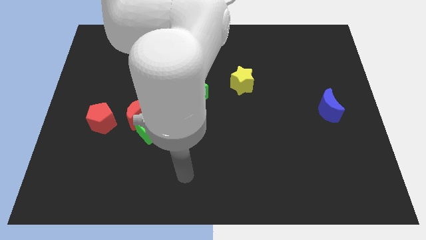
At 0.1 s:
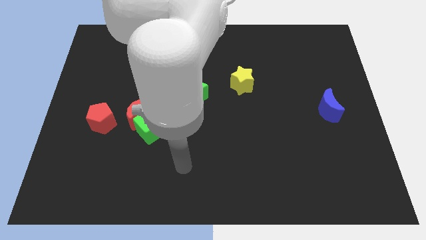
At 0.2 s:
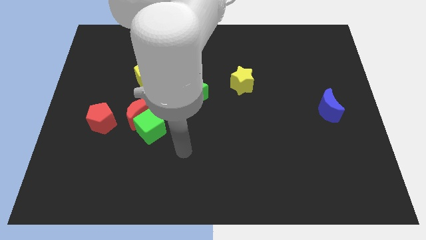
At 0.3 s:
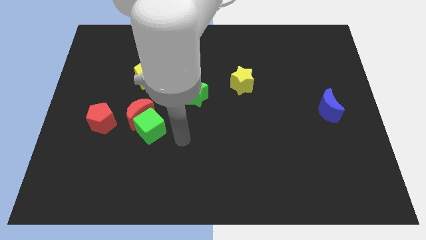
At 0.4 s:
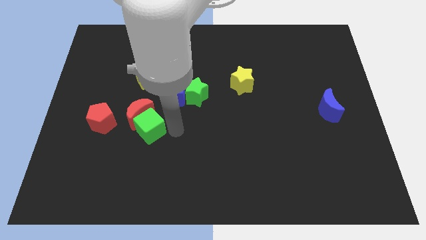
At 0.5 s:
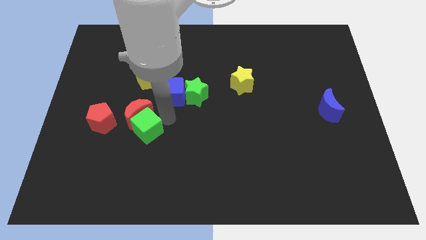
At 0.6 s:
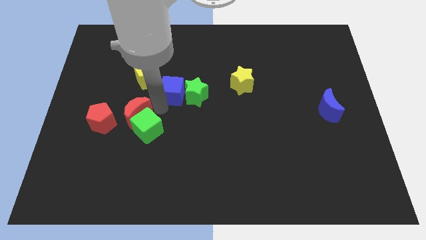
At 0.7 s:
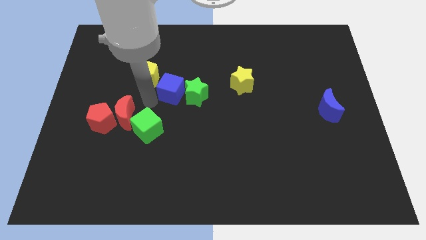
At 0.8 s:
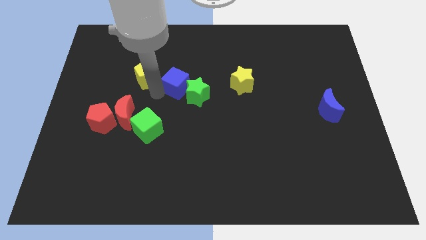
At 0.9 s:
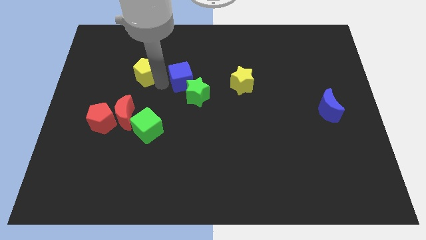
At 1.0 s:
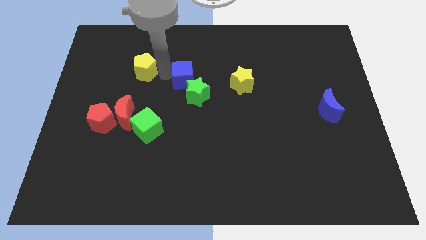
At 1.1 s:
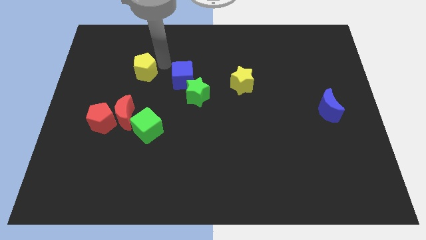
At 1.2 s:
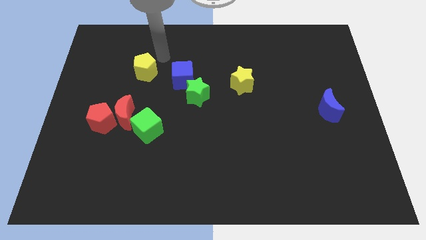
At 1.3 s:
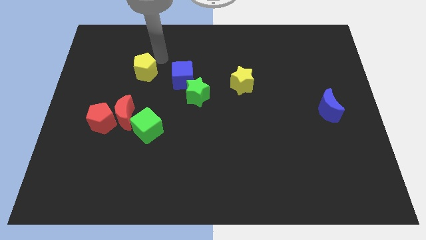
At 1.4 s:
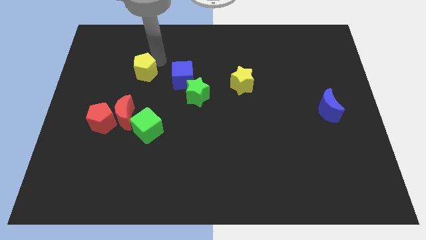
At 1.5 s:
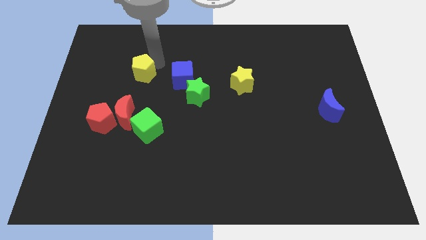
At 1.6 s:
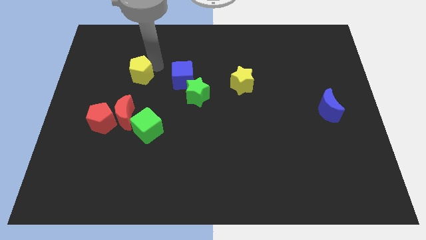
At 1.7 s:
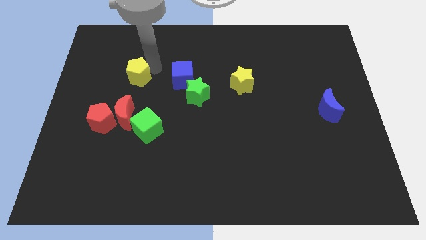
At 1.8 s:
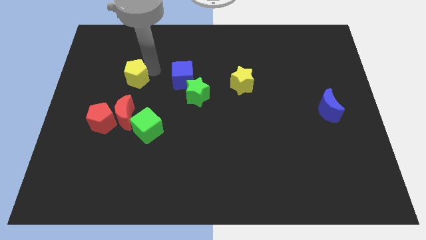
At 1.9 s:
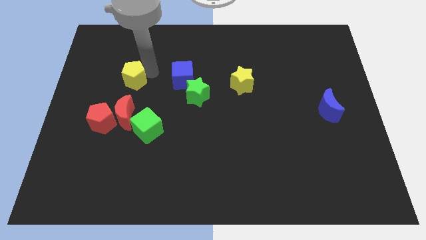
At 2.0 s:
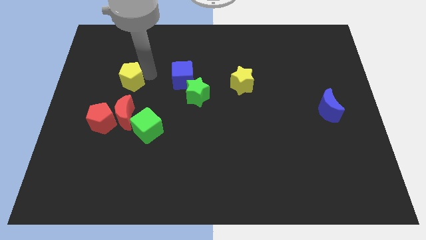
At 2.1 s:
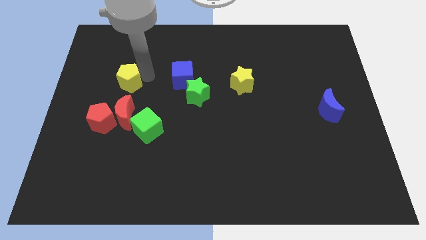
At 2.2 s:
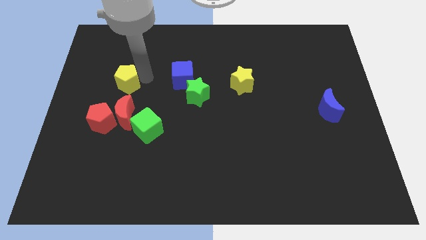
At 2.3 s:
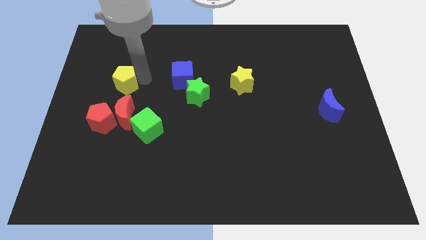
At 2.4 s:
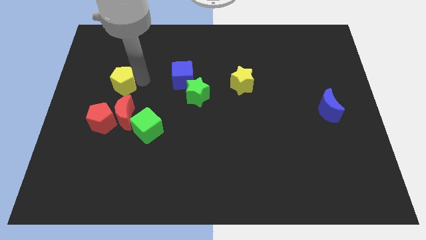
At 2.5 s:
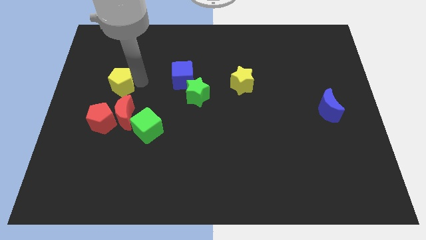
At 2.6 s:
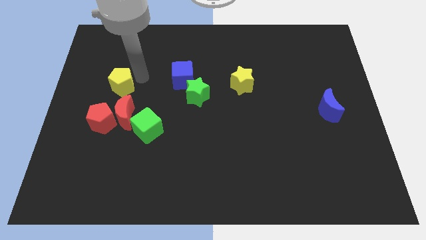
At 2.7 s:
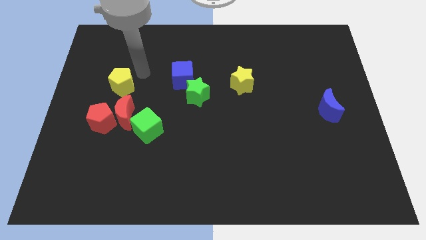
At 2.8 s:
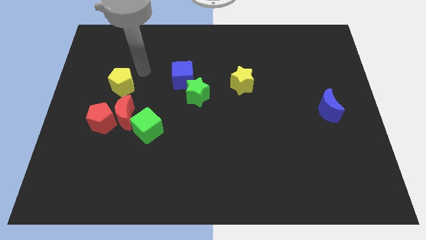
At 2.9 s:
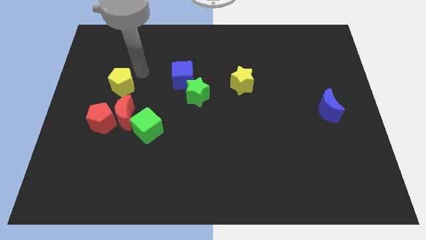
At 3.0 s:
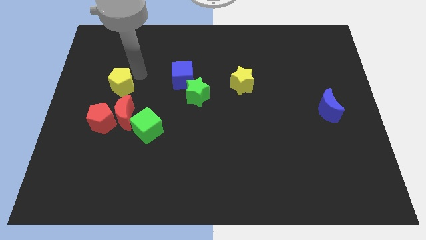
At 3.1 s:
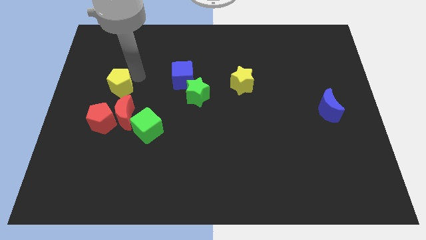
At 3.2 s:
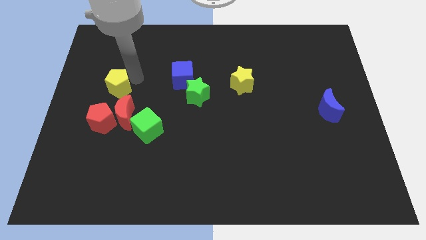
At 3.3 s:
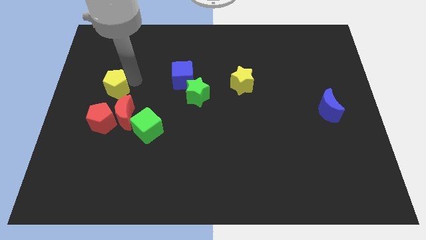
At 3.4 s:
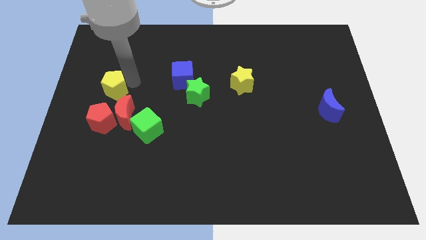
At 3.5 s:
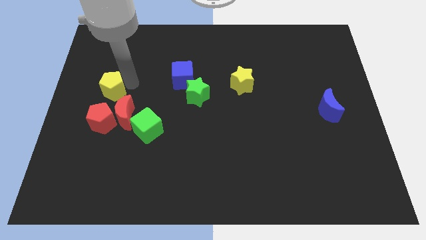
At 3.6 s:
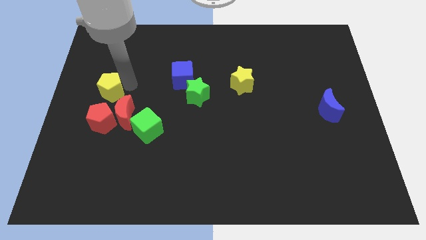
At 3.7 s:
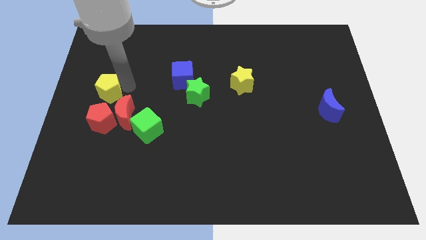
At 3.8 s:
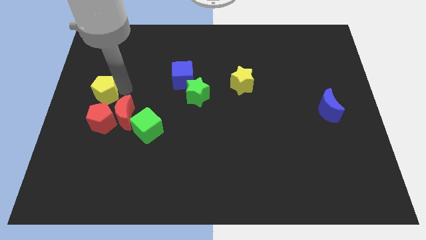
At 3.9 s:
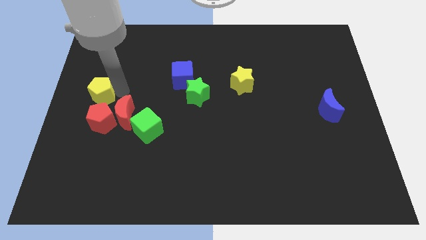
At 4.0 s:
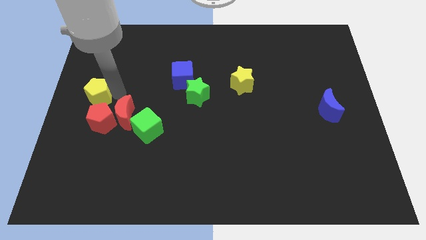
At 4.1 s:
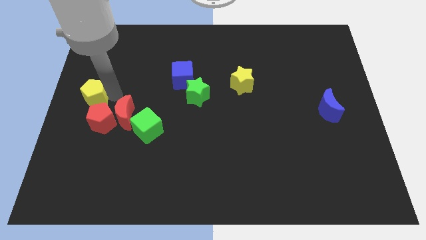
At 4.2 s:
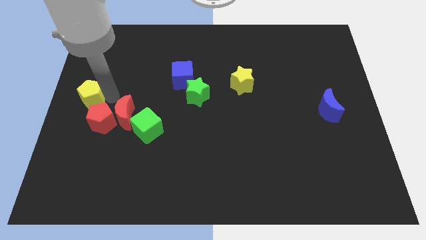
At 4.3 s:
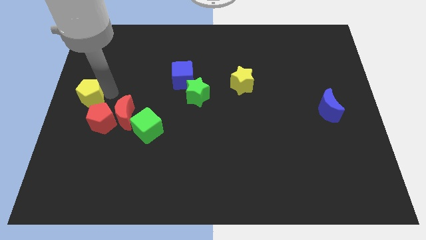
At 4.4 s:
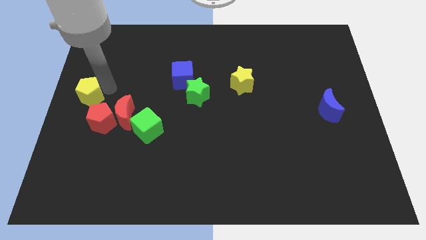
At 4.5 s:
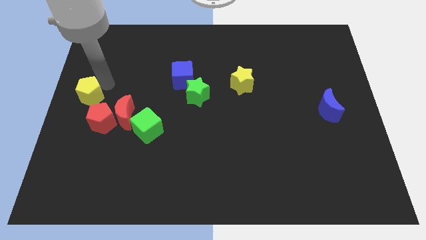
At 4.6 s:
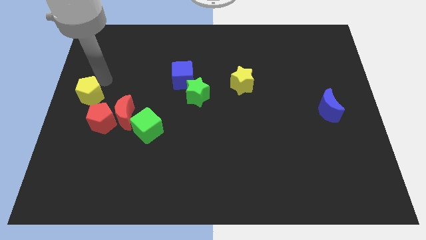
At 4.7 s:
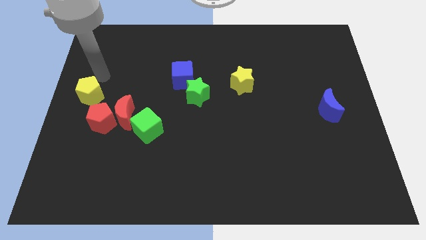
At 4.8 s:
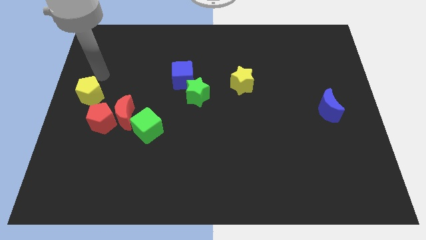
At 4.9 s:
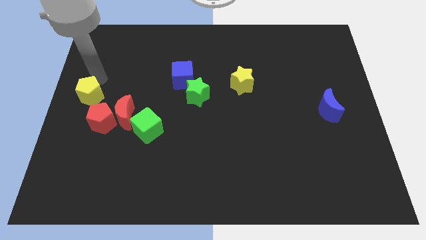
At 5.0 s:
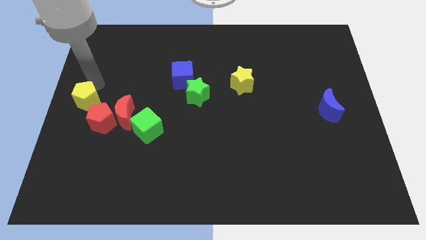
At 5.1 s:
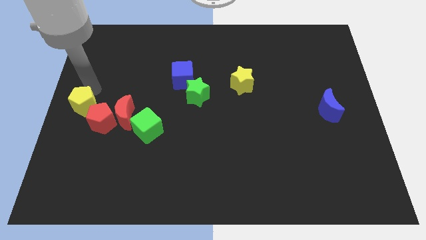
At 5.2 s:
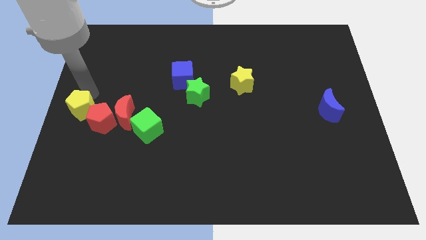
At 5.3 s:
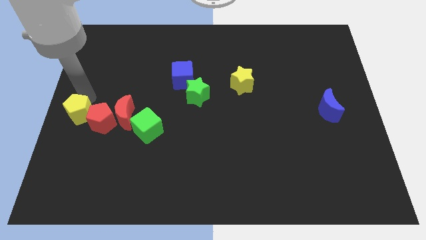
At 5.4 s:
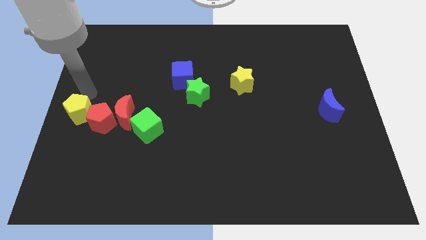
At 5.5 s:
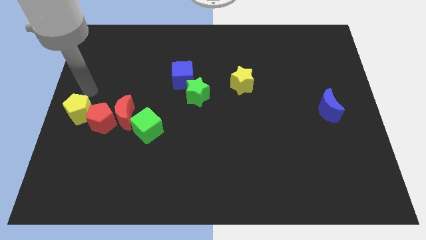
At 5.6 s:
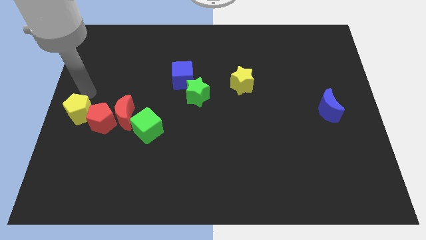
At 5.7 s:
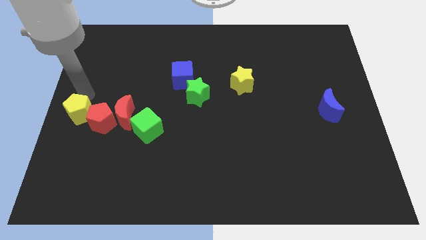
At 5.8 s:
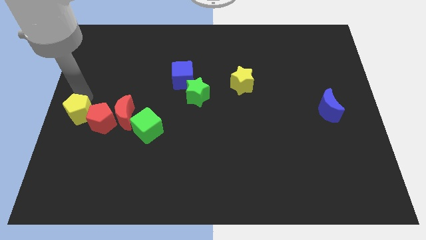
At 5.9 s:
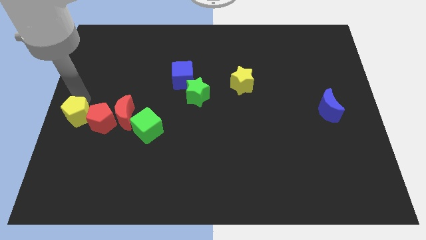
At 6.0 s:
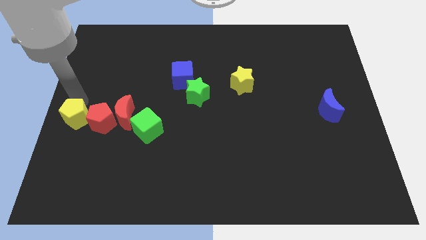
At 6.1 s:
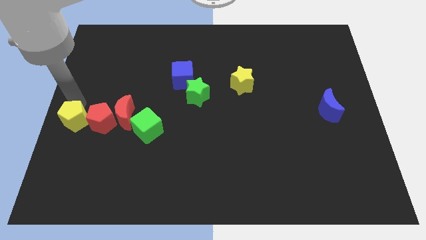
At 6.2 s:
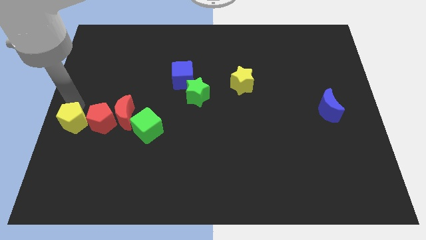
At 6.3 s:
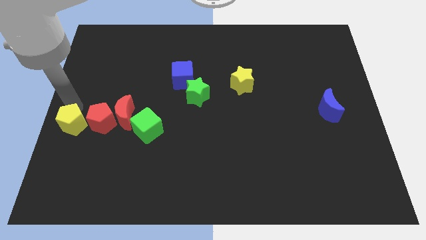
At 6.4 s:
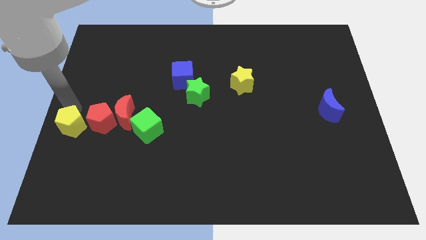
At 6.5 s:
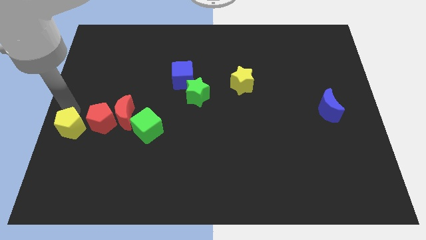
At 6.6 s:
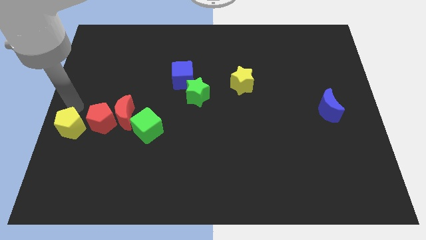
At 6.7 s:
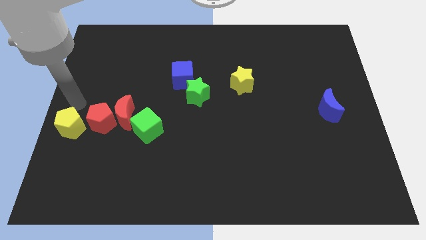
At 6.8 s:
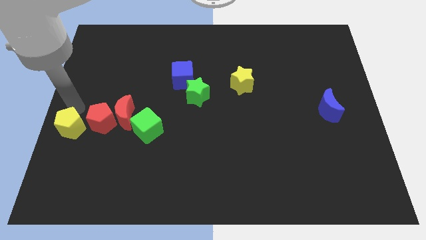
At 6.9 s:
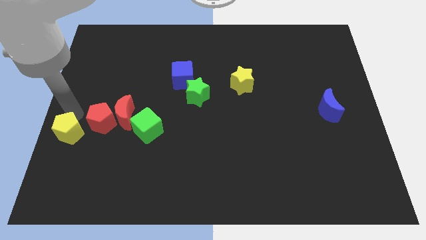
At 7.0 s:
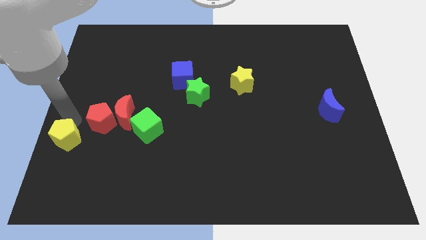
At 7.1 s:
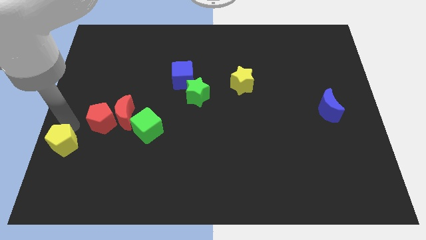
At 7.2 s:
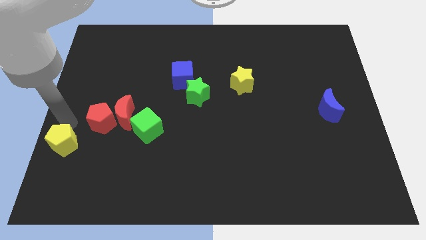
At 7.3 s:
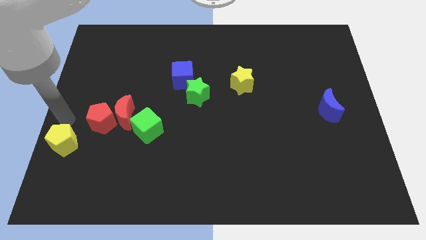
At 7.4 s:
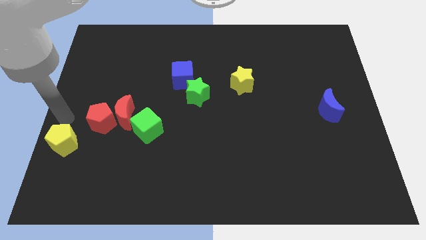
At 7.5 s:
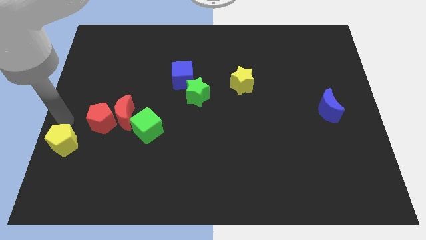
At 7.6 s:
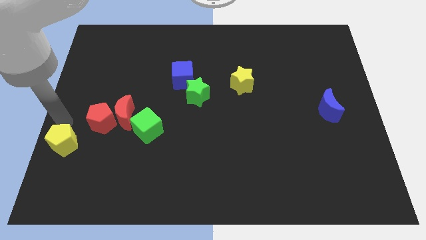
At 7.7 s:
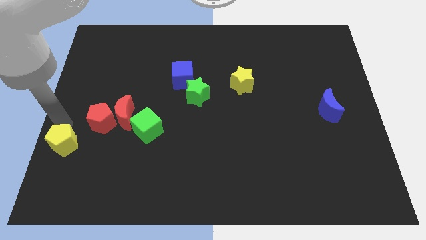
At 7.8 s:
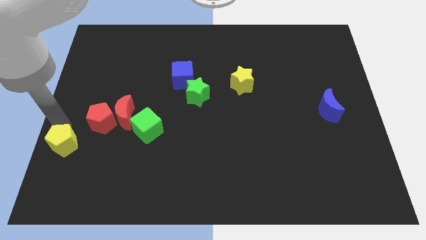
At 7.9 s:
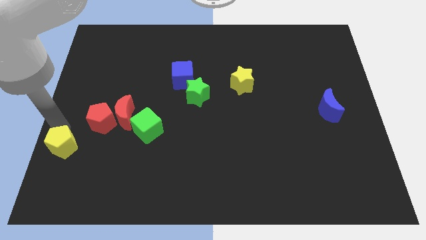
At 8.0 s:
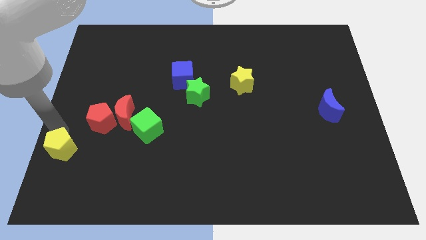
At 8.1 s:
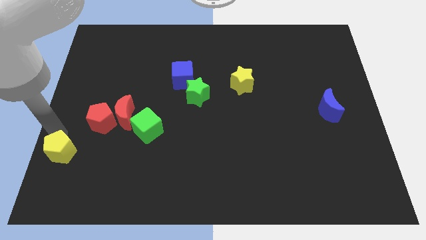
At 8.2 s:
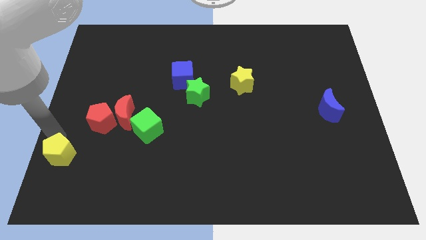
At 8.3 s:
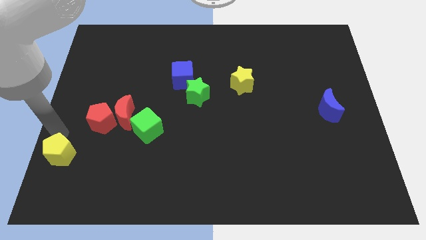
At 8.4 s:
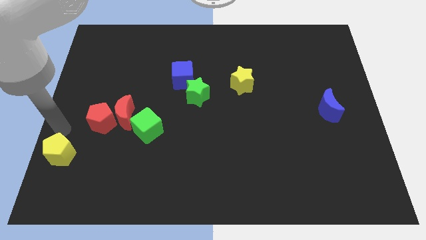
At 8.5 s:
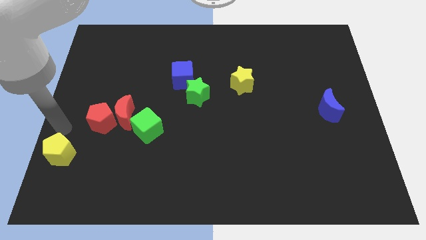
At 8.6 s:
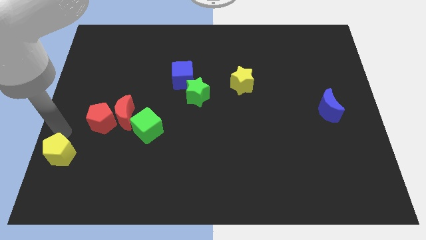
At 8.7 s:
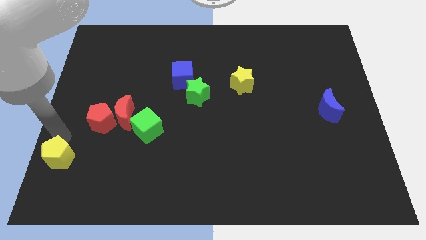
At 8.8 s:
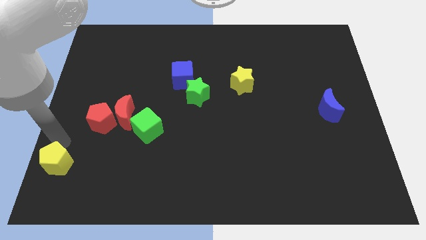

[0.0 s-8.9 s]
put the yellow pentagon to the bottom left
